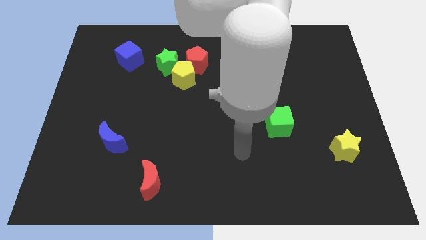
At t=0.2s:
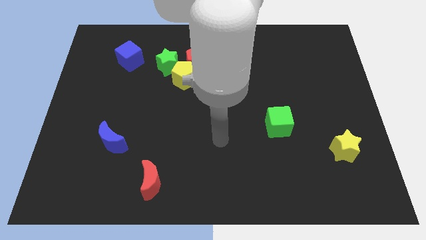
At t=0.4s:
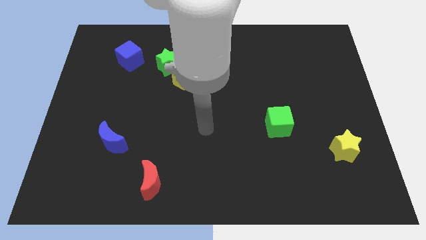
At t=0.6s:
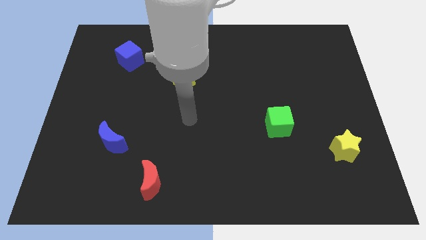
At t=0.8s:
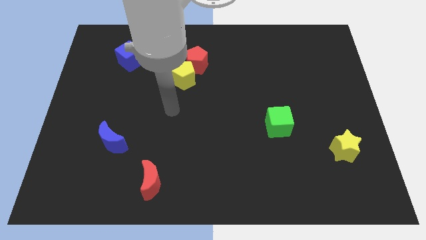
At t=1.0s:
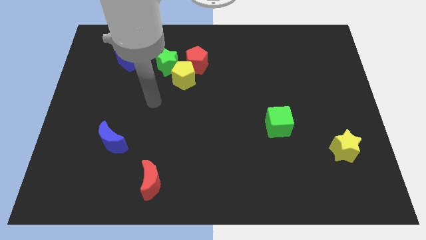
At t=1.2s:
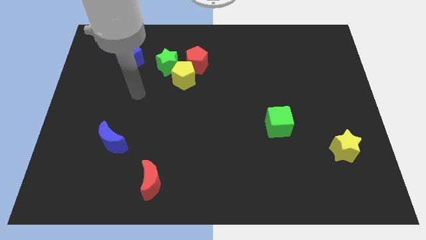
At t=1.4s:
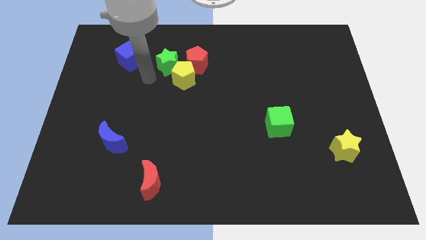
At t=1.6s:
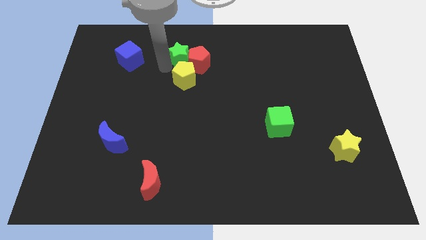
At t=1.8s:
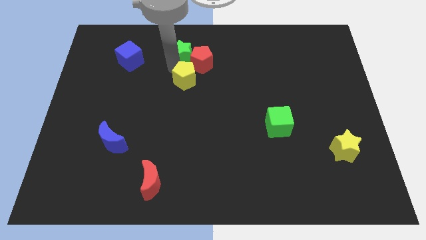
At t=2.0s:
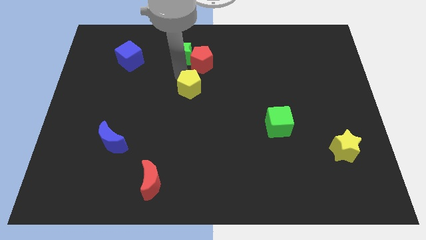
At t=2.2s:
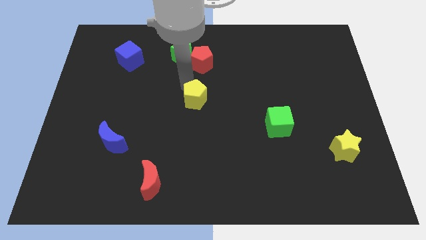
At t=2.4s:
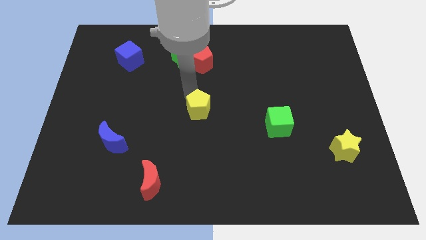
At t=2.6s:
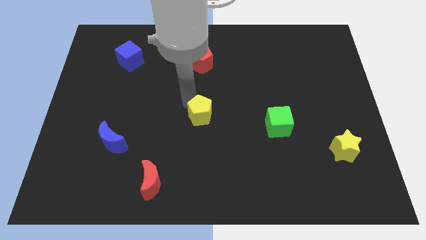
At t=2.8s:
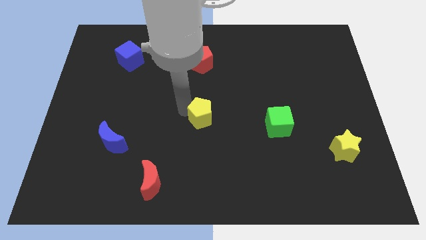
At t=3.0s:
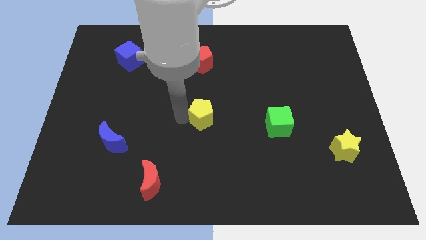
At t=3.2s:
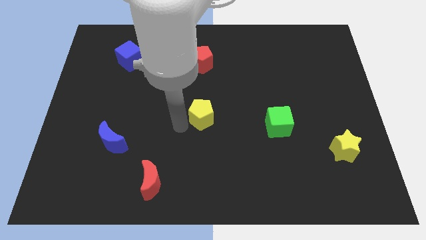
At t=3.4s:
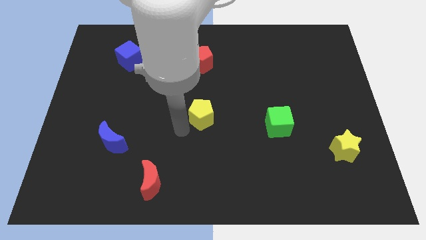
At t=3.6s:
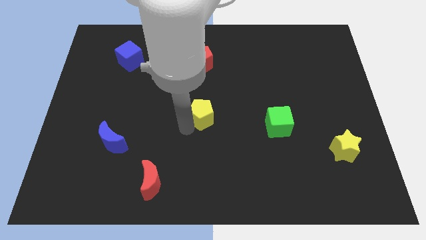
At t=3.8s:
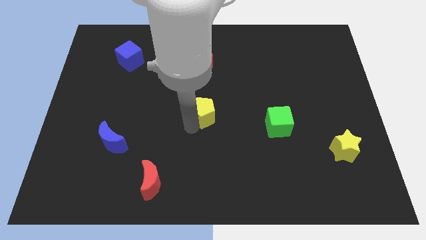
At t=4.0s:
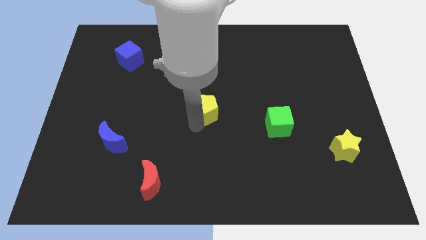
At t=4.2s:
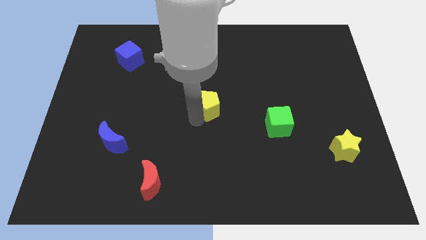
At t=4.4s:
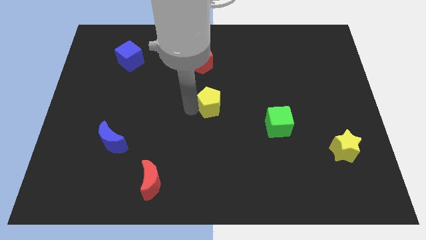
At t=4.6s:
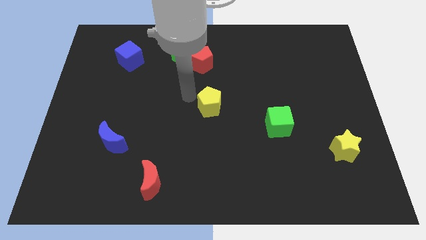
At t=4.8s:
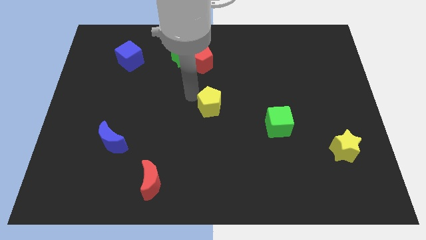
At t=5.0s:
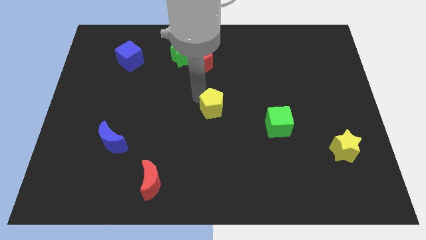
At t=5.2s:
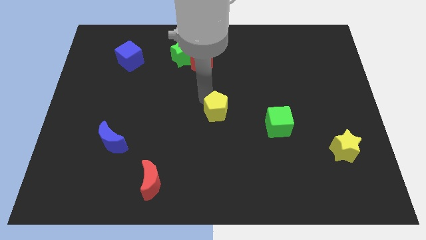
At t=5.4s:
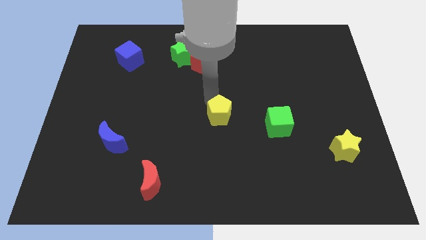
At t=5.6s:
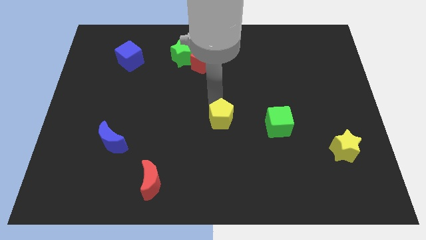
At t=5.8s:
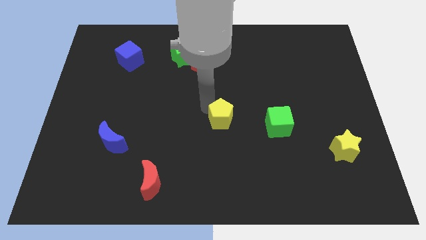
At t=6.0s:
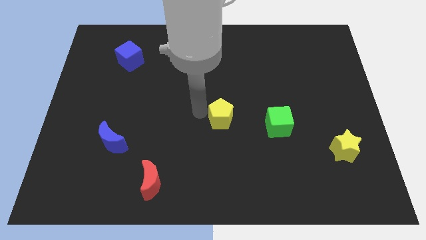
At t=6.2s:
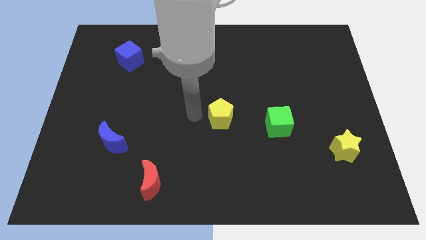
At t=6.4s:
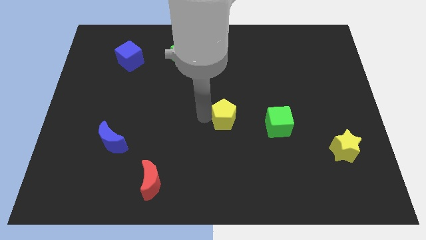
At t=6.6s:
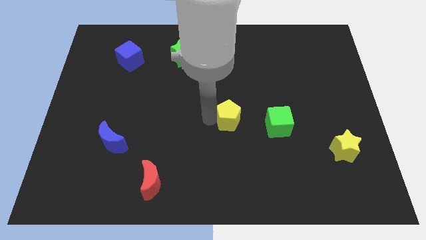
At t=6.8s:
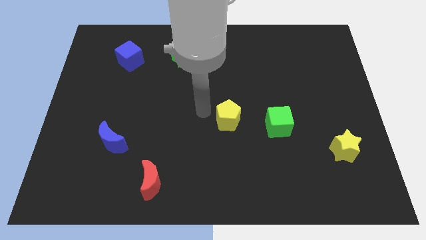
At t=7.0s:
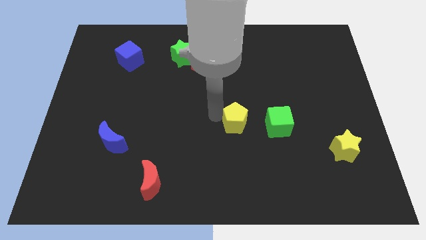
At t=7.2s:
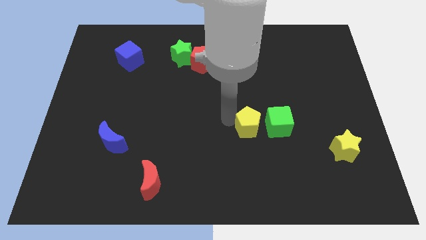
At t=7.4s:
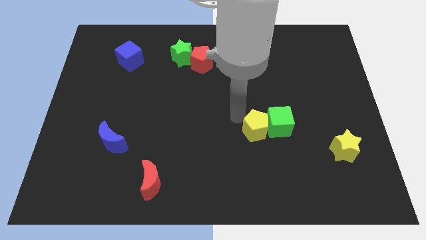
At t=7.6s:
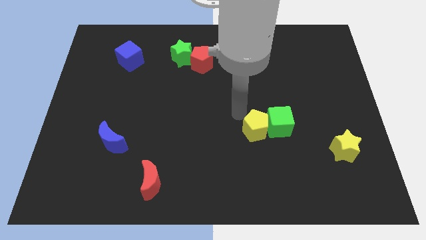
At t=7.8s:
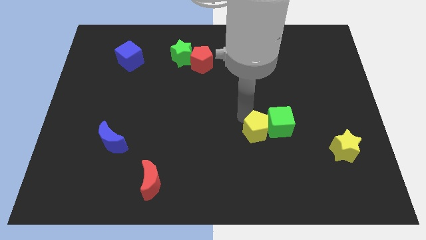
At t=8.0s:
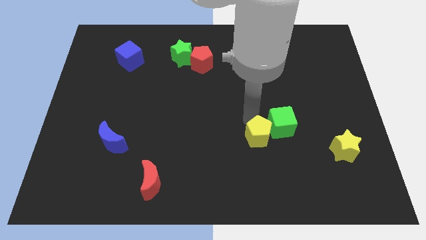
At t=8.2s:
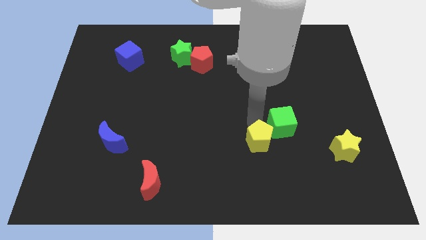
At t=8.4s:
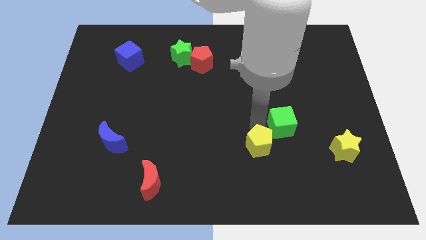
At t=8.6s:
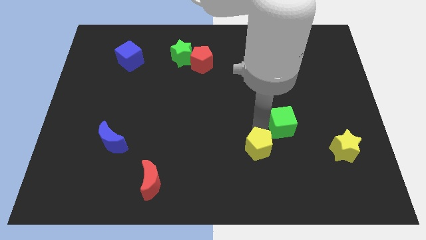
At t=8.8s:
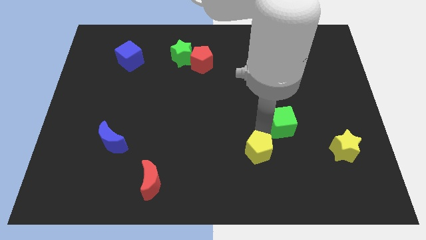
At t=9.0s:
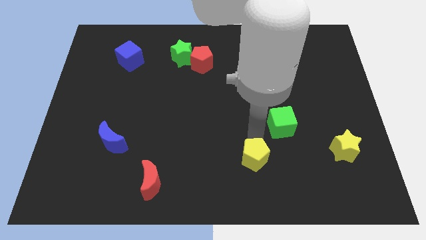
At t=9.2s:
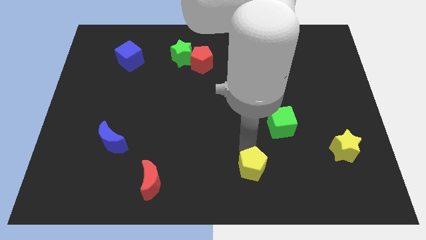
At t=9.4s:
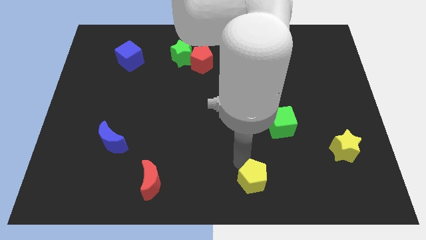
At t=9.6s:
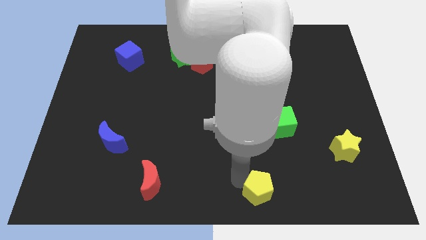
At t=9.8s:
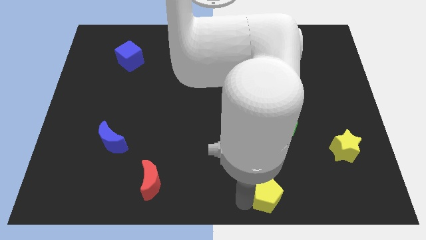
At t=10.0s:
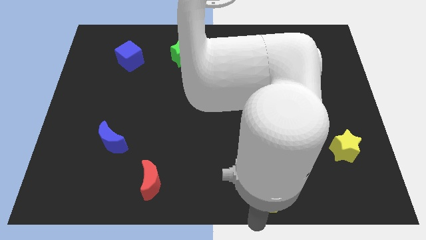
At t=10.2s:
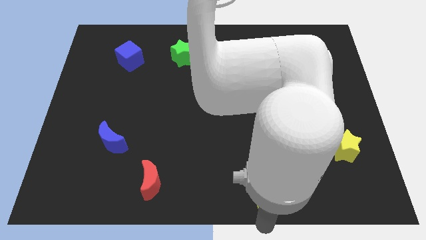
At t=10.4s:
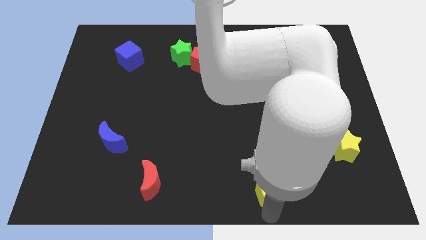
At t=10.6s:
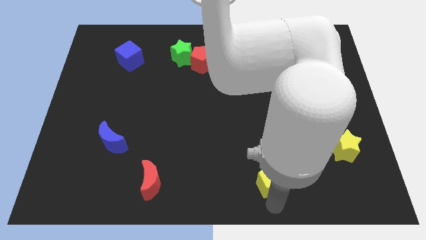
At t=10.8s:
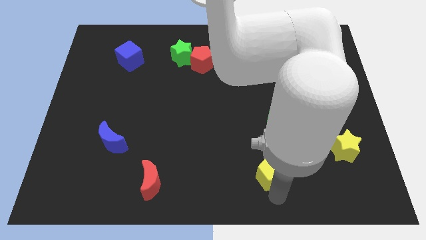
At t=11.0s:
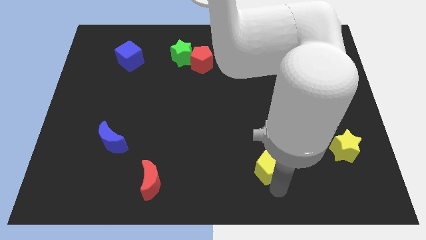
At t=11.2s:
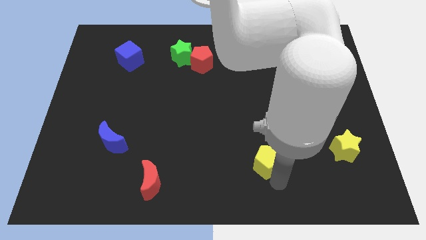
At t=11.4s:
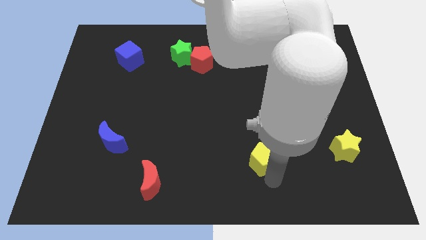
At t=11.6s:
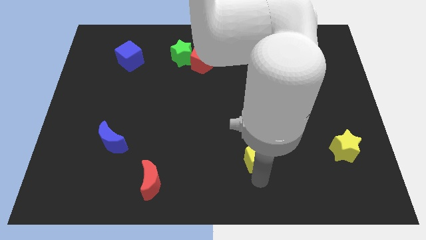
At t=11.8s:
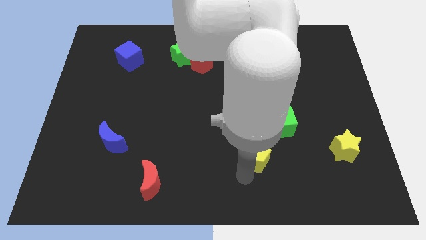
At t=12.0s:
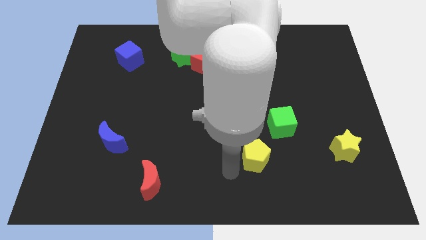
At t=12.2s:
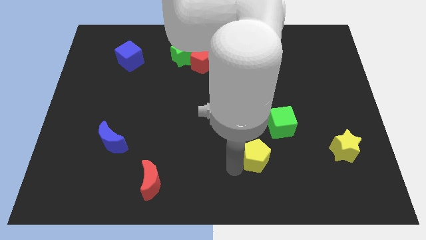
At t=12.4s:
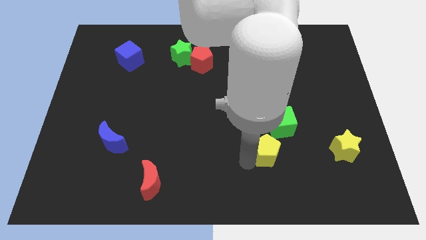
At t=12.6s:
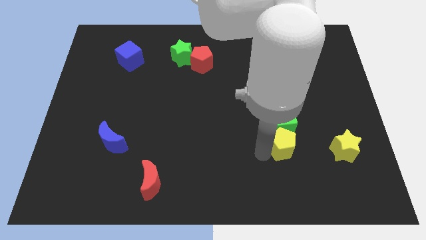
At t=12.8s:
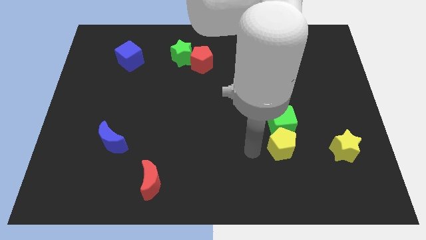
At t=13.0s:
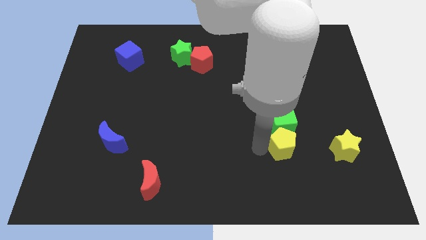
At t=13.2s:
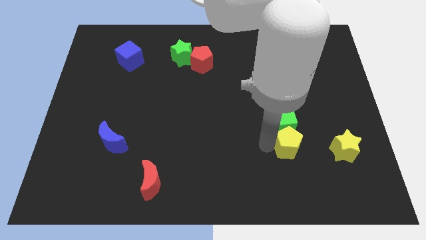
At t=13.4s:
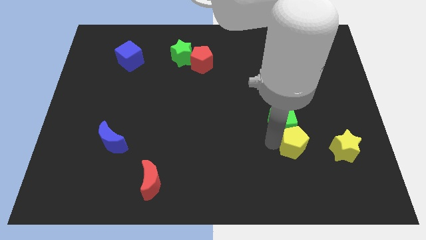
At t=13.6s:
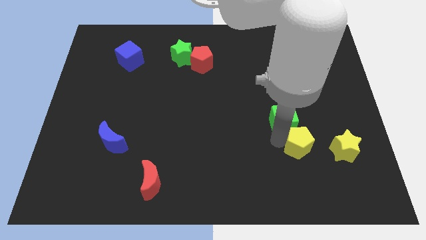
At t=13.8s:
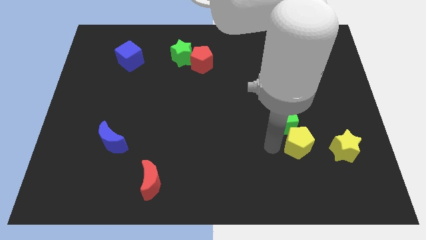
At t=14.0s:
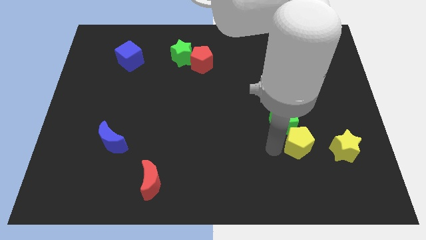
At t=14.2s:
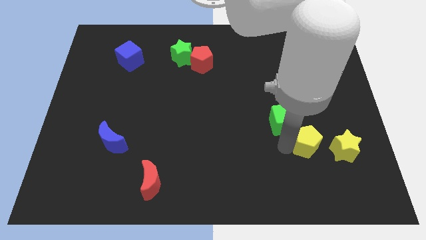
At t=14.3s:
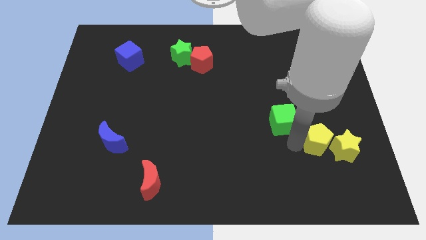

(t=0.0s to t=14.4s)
put the yellow pentagon close to the yellow star
